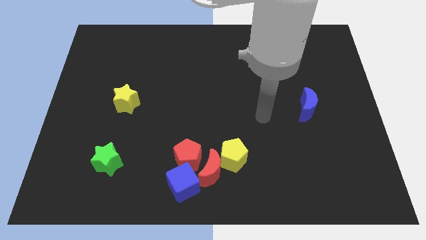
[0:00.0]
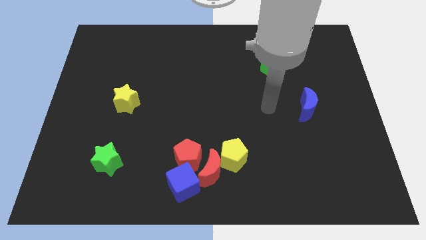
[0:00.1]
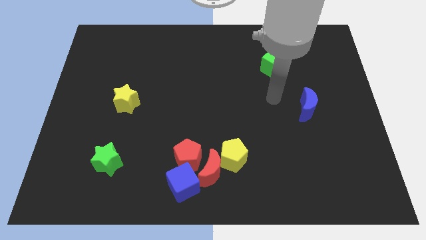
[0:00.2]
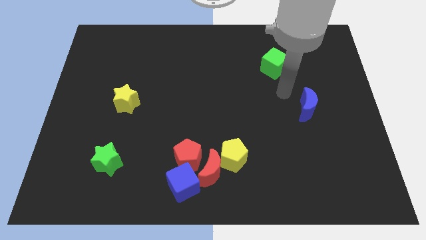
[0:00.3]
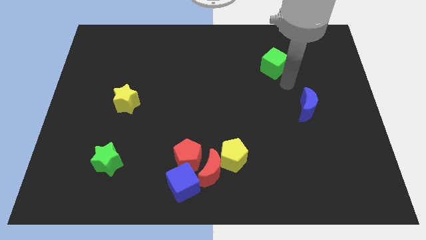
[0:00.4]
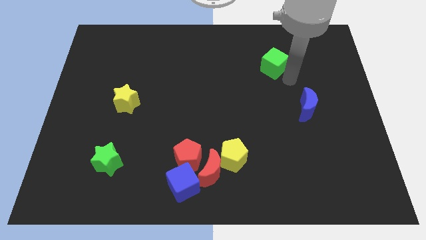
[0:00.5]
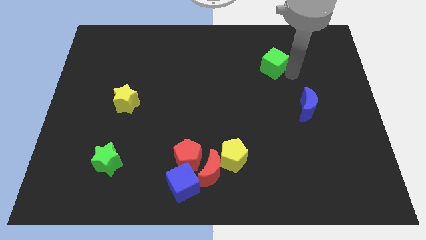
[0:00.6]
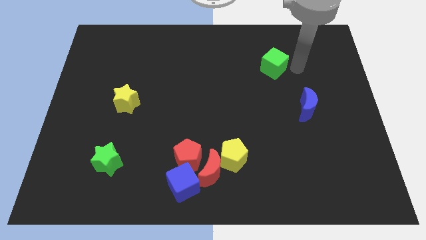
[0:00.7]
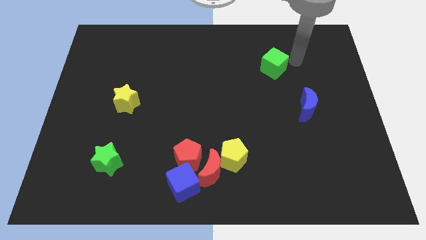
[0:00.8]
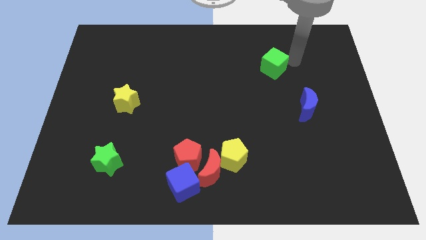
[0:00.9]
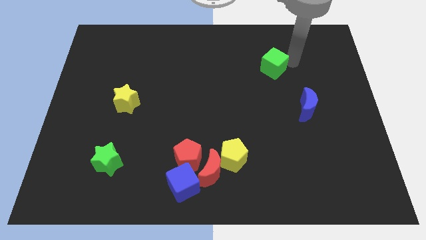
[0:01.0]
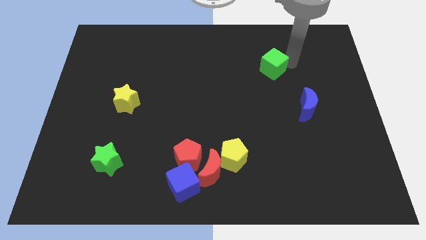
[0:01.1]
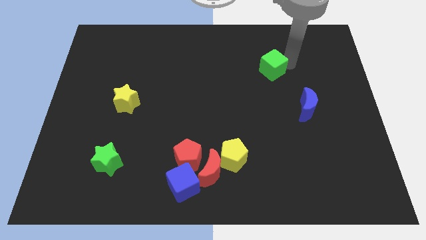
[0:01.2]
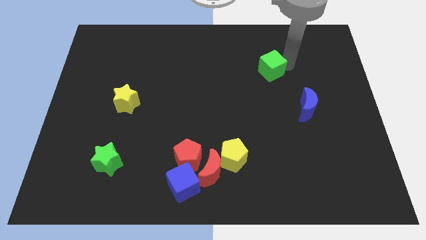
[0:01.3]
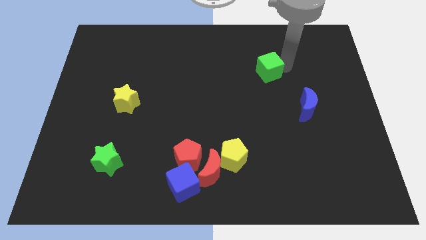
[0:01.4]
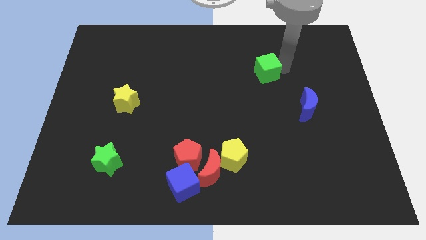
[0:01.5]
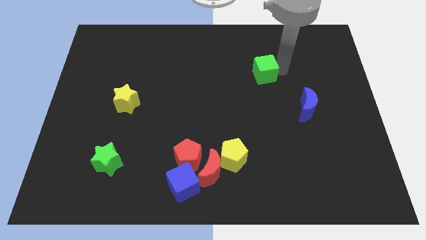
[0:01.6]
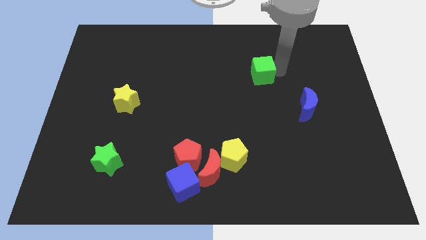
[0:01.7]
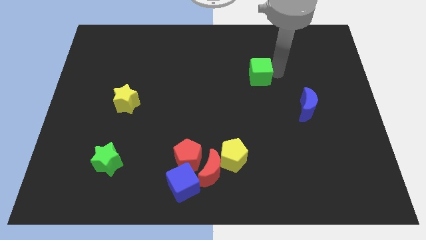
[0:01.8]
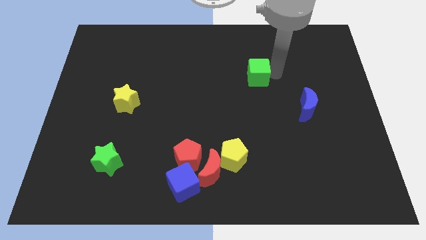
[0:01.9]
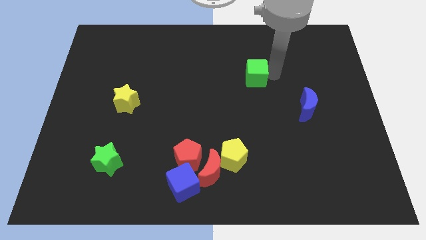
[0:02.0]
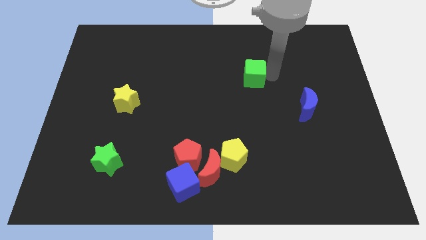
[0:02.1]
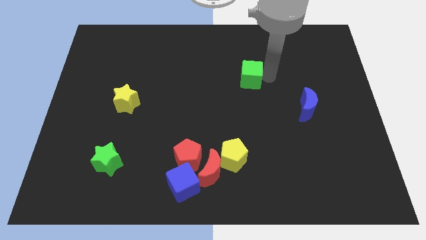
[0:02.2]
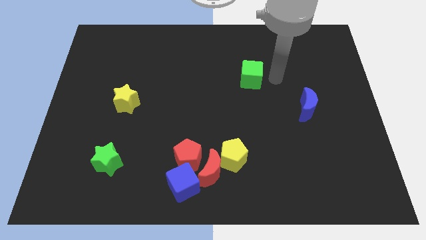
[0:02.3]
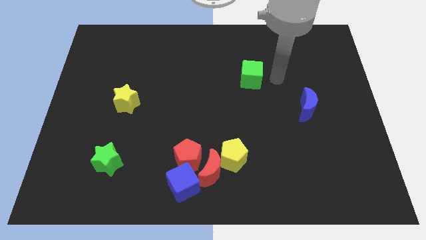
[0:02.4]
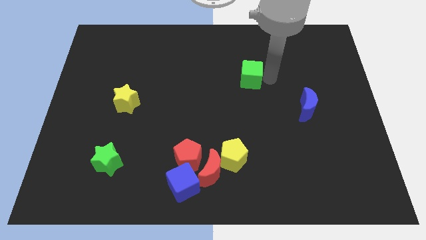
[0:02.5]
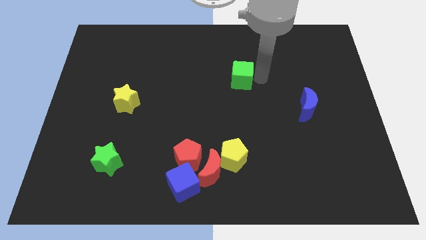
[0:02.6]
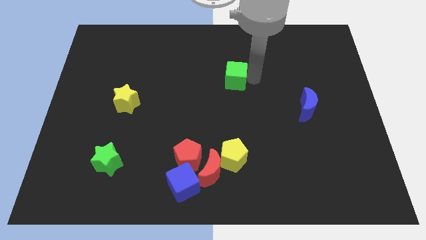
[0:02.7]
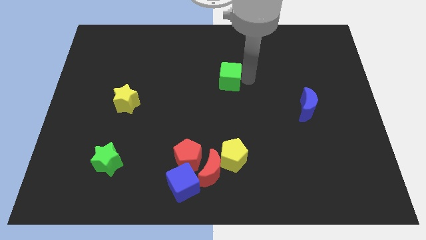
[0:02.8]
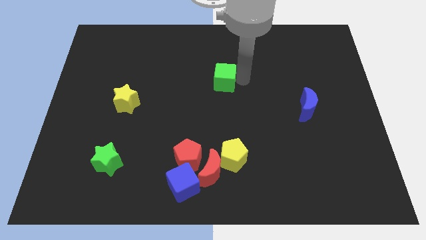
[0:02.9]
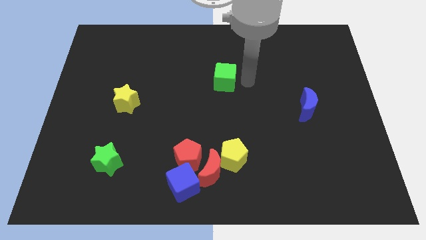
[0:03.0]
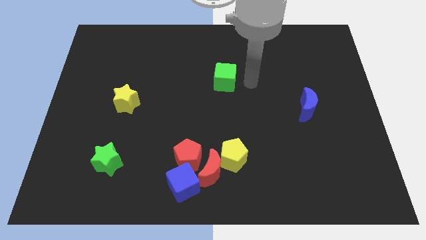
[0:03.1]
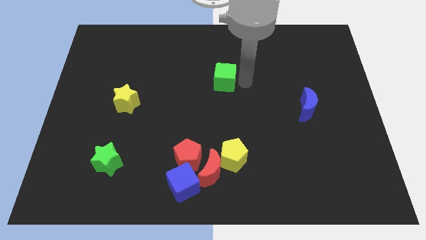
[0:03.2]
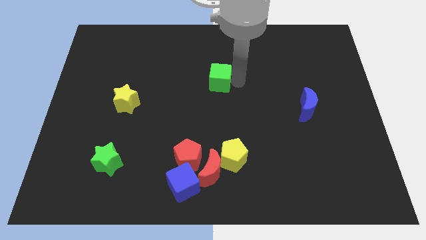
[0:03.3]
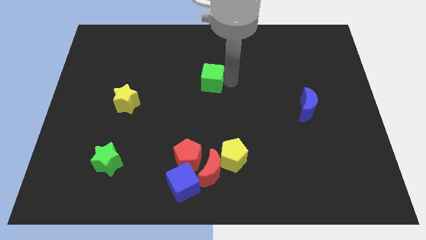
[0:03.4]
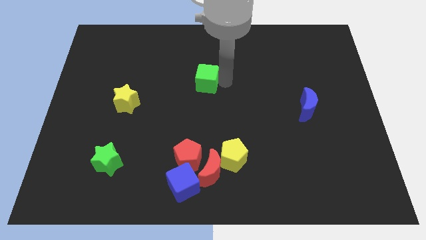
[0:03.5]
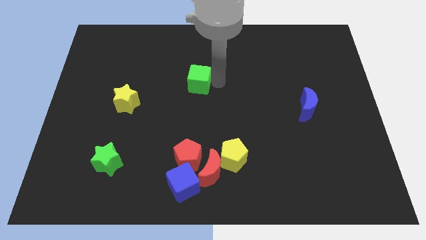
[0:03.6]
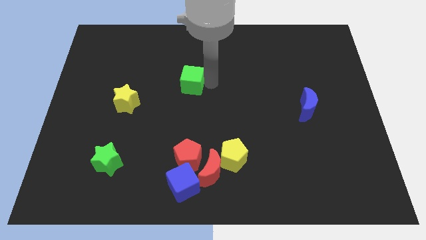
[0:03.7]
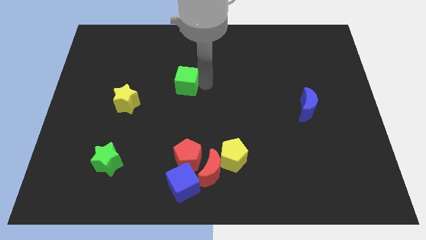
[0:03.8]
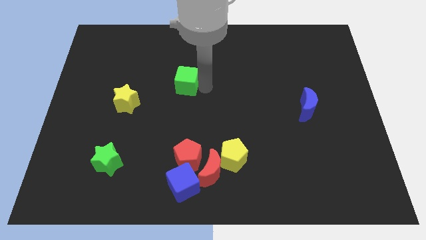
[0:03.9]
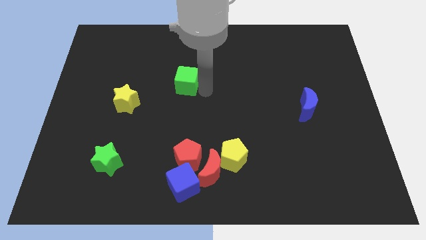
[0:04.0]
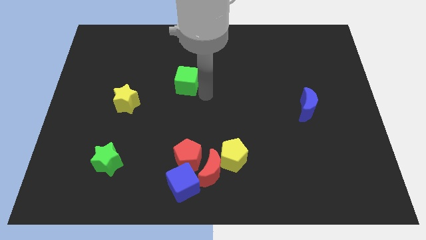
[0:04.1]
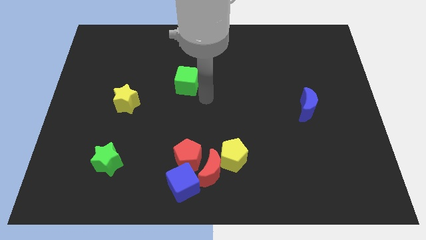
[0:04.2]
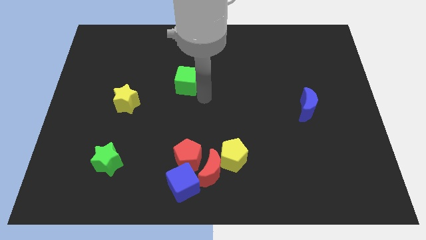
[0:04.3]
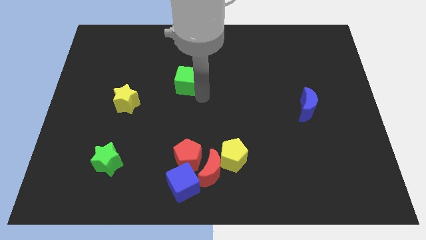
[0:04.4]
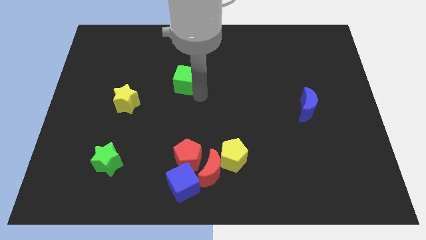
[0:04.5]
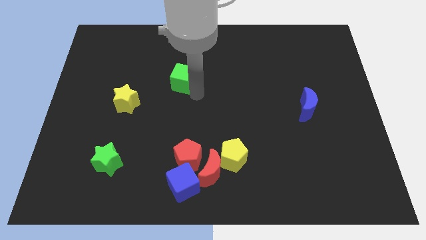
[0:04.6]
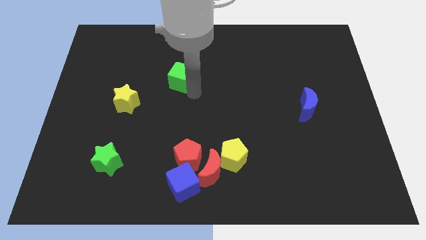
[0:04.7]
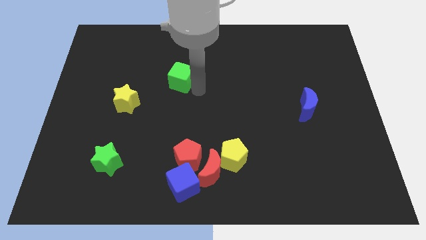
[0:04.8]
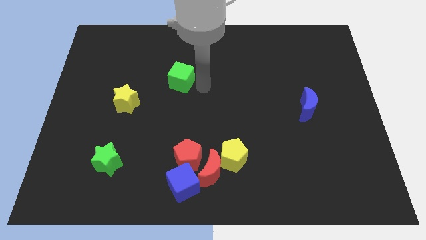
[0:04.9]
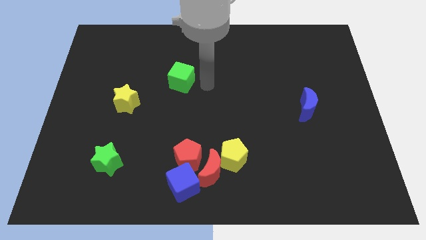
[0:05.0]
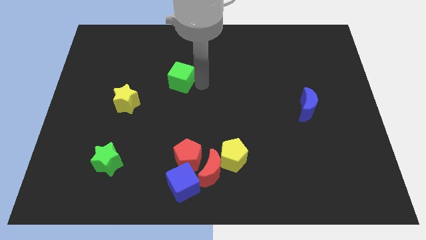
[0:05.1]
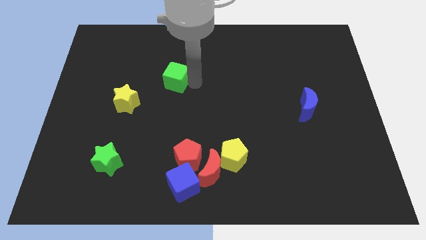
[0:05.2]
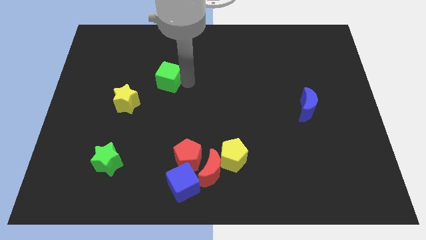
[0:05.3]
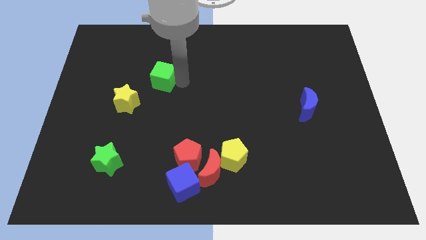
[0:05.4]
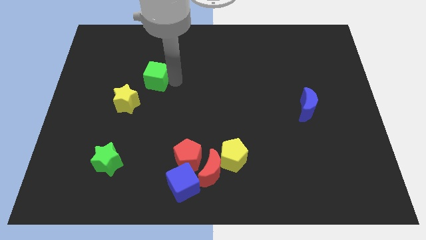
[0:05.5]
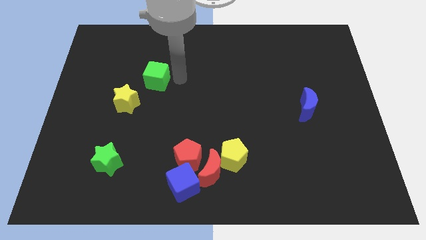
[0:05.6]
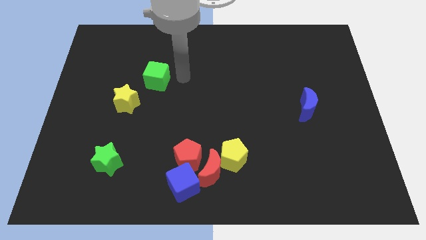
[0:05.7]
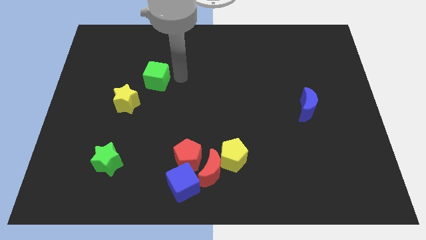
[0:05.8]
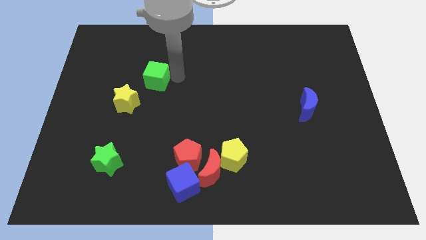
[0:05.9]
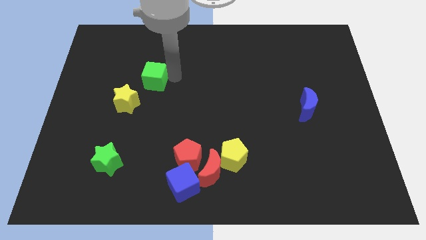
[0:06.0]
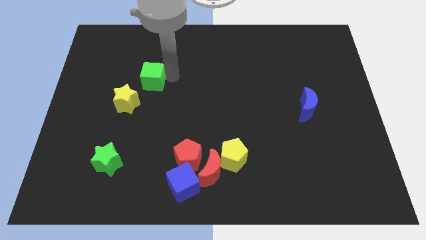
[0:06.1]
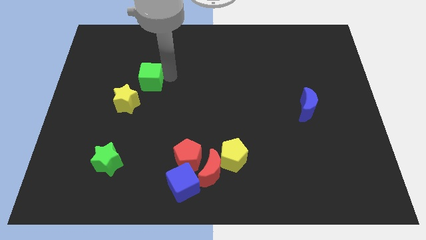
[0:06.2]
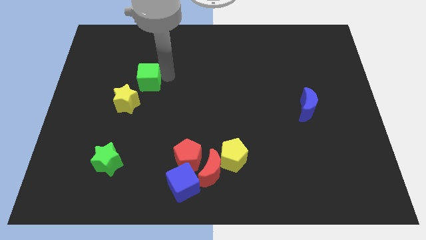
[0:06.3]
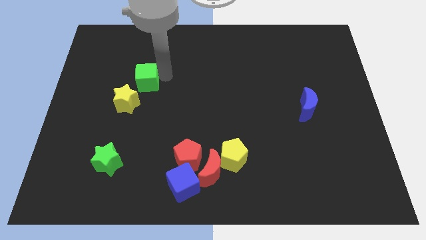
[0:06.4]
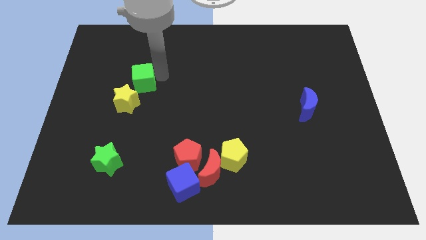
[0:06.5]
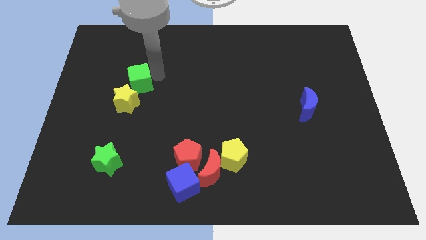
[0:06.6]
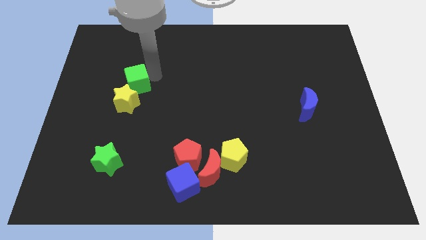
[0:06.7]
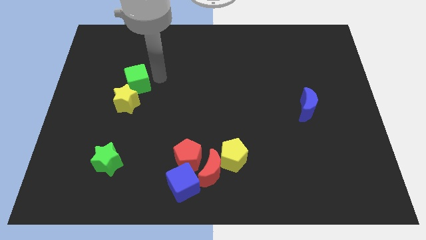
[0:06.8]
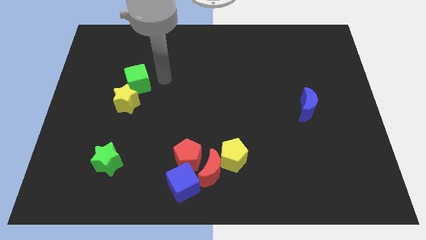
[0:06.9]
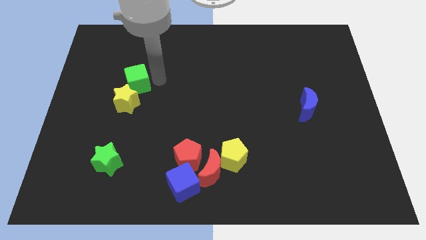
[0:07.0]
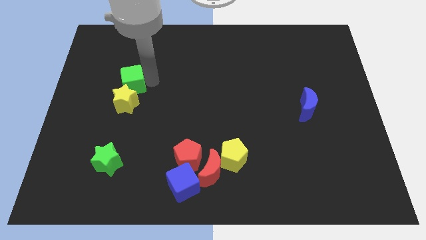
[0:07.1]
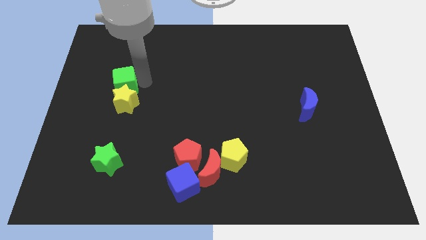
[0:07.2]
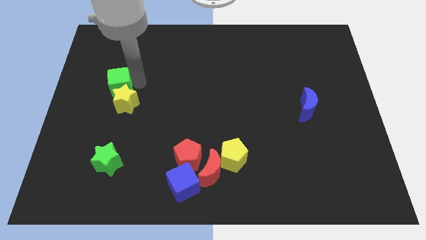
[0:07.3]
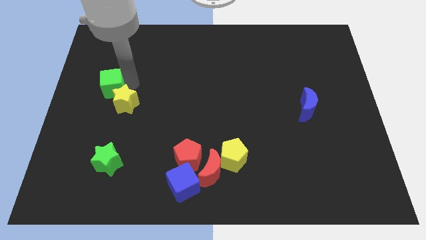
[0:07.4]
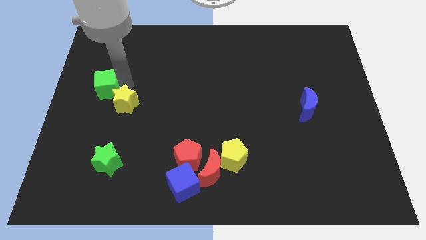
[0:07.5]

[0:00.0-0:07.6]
move the green cube to the left side
